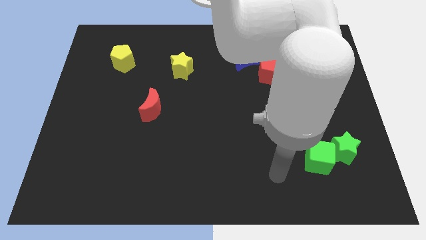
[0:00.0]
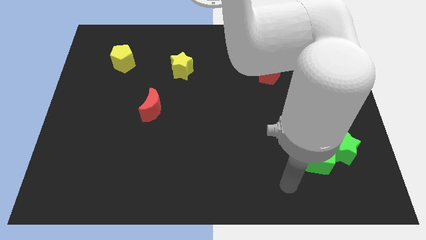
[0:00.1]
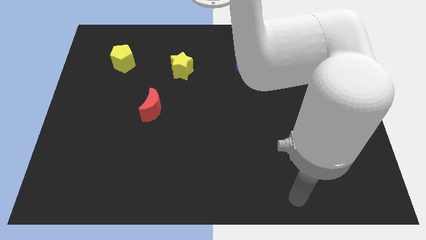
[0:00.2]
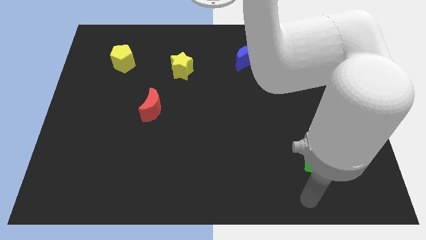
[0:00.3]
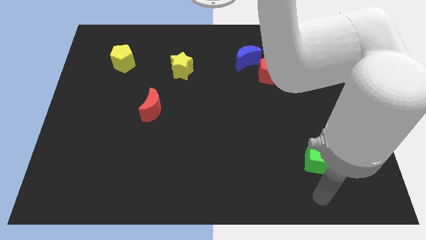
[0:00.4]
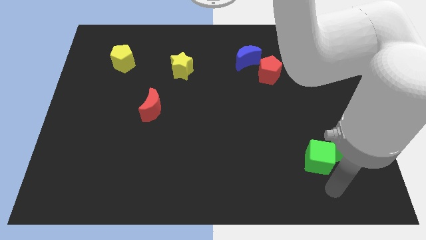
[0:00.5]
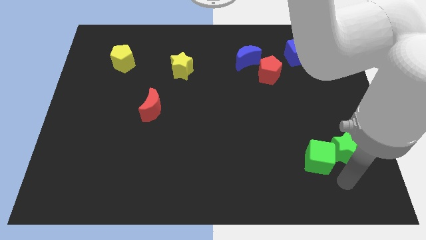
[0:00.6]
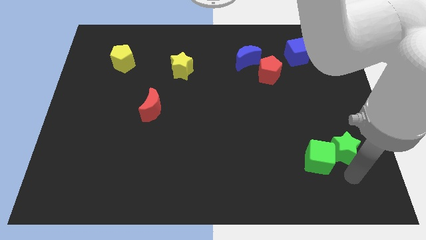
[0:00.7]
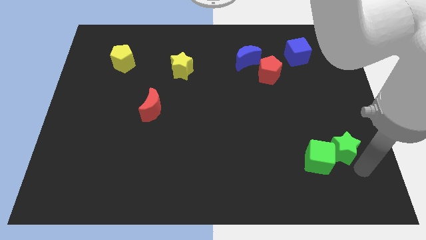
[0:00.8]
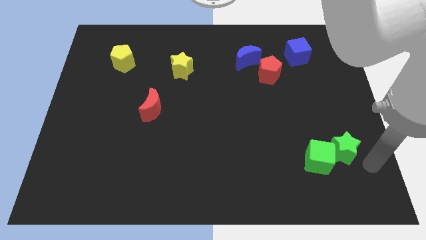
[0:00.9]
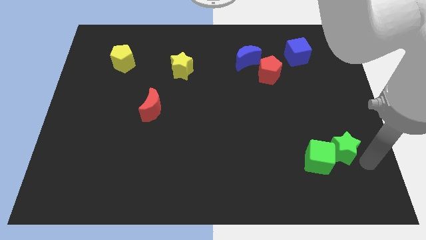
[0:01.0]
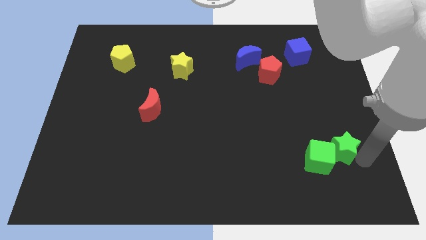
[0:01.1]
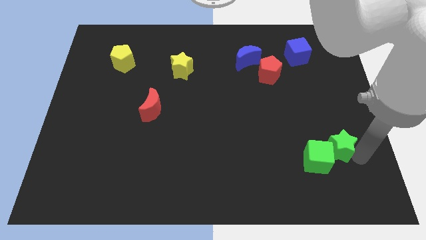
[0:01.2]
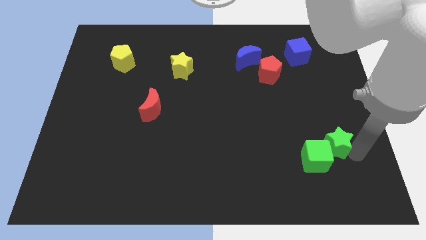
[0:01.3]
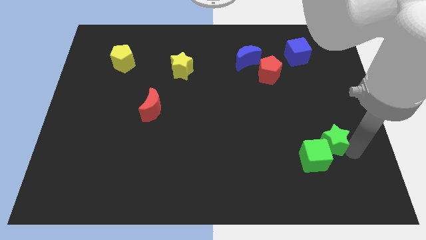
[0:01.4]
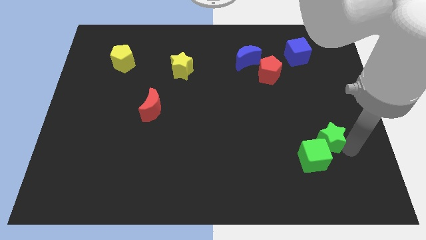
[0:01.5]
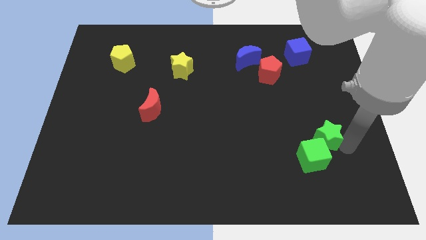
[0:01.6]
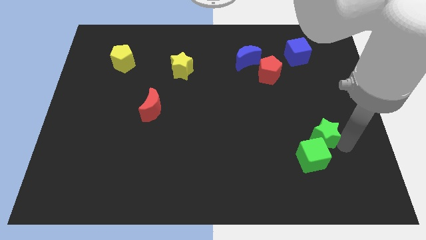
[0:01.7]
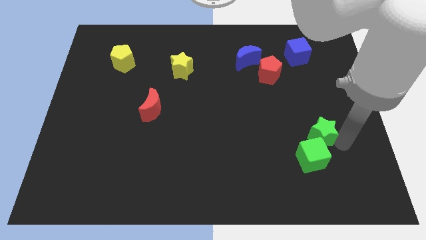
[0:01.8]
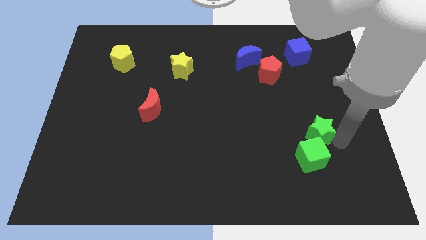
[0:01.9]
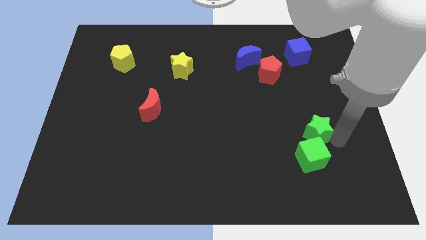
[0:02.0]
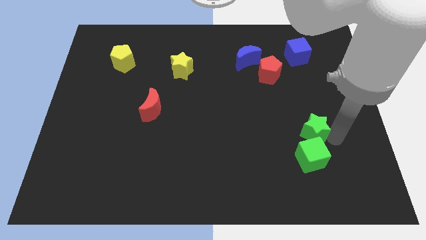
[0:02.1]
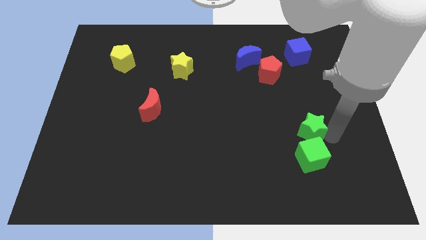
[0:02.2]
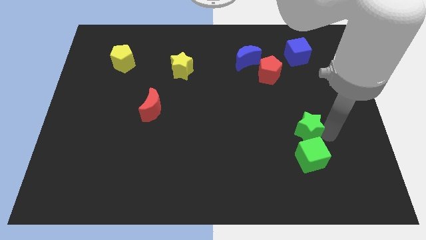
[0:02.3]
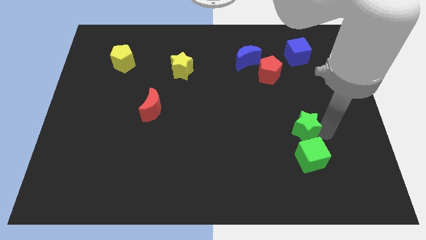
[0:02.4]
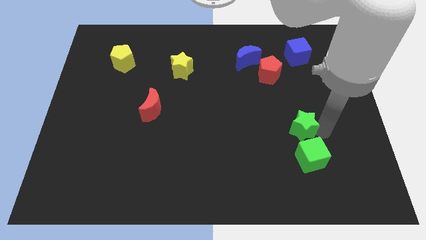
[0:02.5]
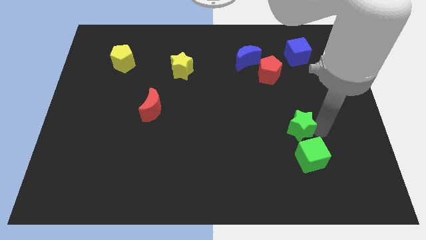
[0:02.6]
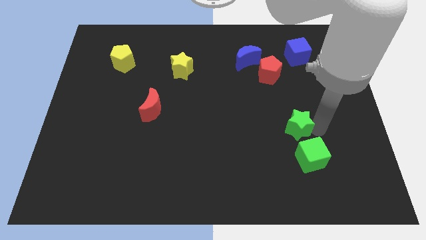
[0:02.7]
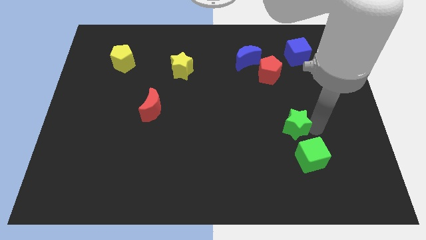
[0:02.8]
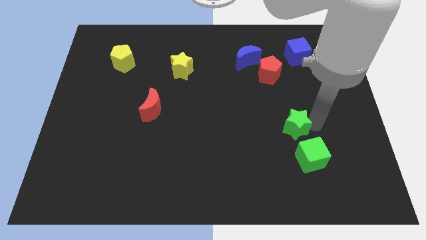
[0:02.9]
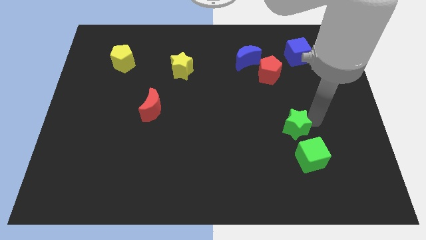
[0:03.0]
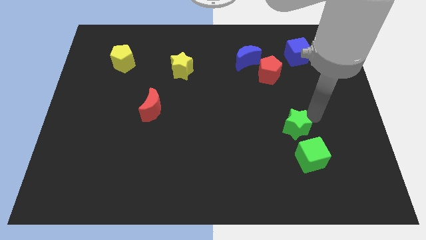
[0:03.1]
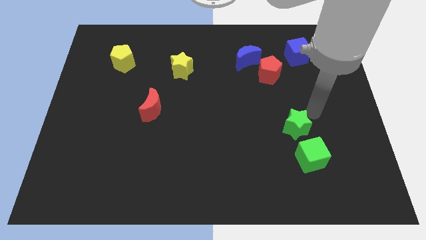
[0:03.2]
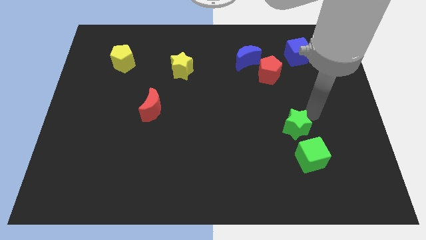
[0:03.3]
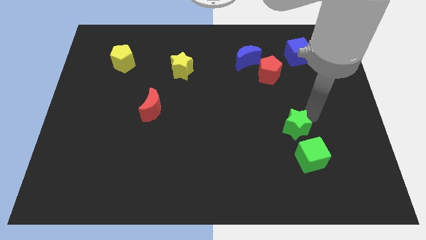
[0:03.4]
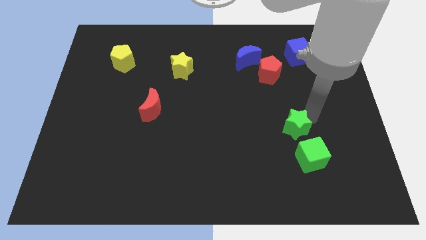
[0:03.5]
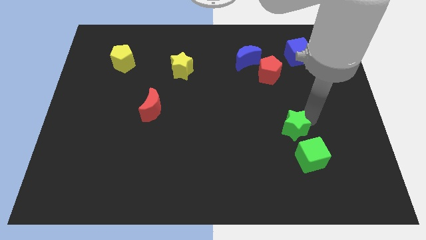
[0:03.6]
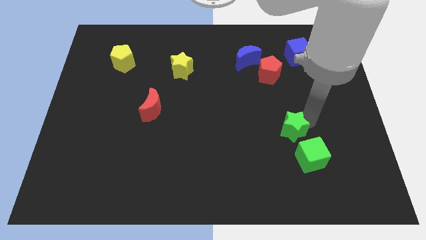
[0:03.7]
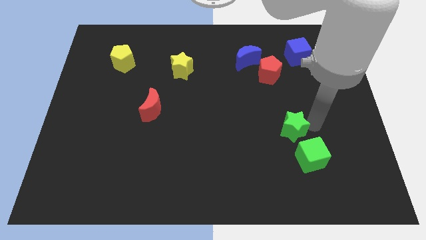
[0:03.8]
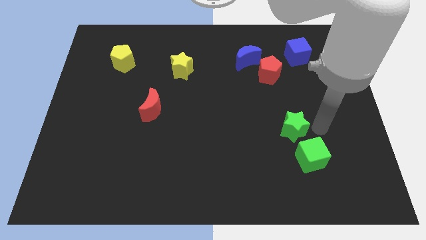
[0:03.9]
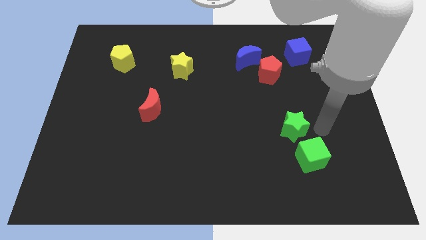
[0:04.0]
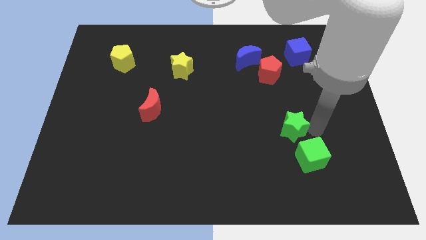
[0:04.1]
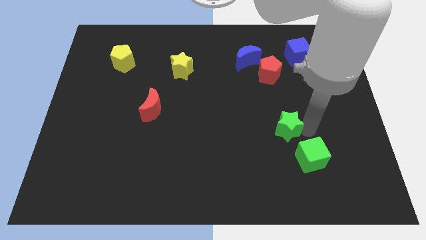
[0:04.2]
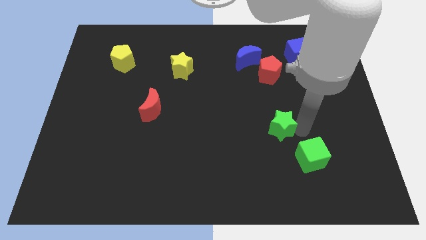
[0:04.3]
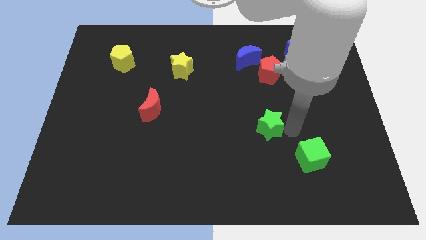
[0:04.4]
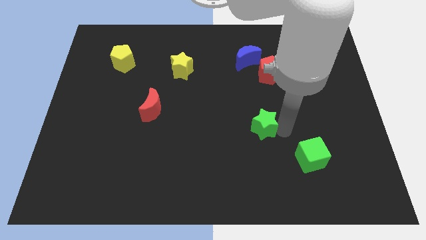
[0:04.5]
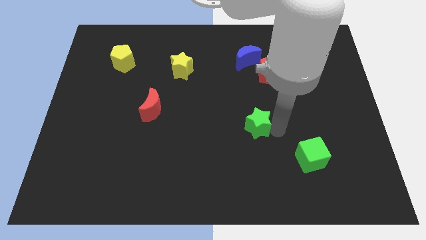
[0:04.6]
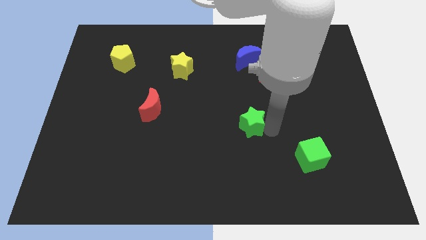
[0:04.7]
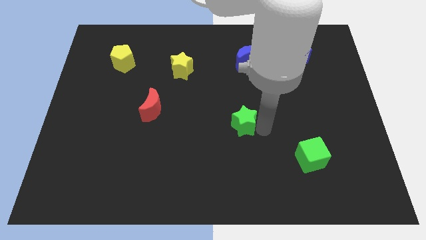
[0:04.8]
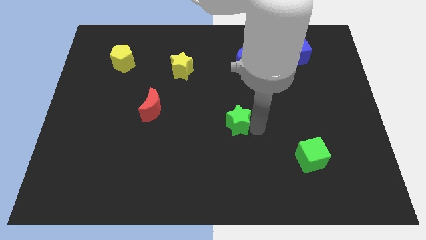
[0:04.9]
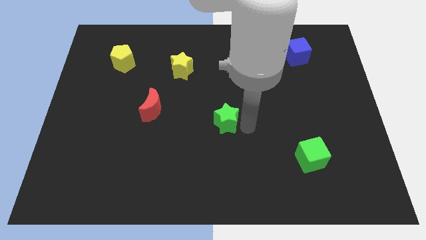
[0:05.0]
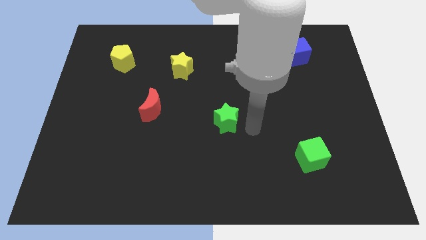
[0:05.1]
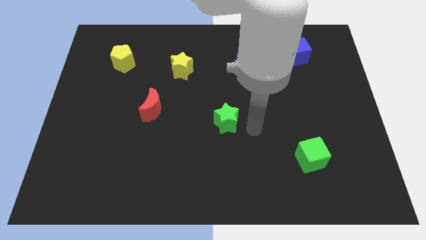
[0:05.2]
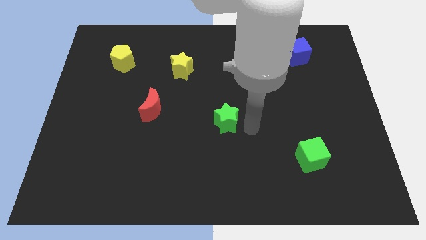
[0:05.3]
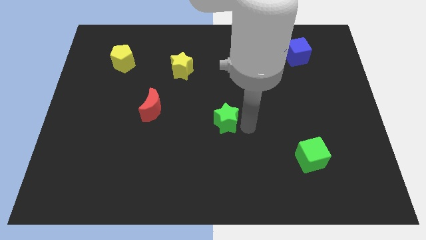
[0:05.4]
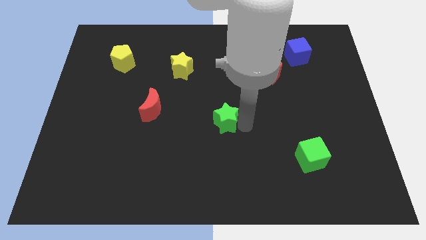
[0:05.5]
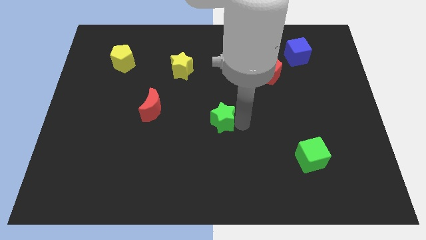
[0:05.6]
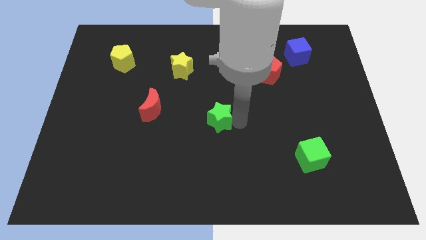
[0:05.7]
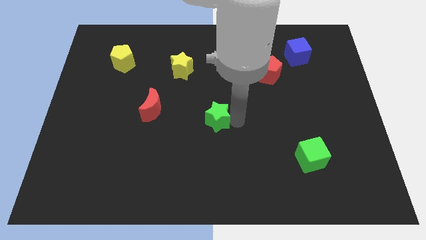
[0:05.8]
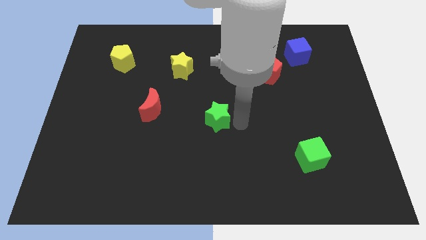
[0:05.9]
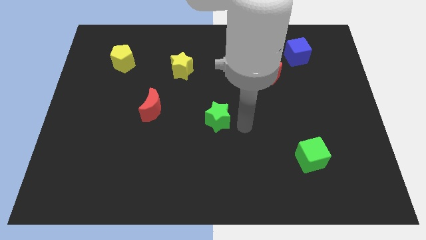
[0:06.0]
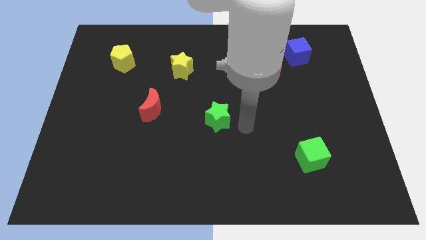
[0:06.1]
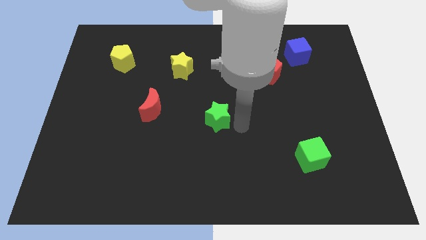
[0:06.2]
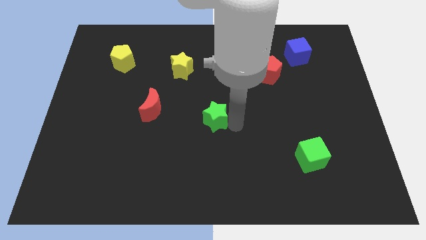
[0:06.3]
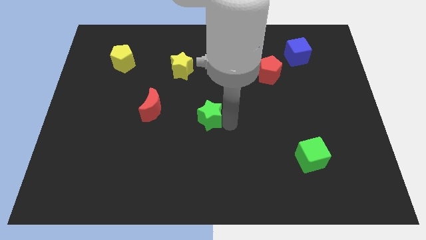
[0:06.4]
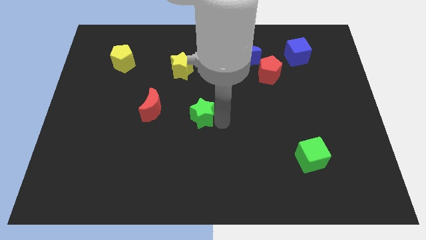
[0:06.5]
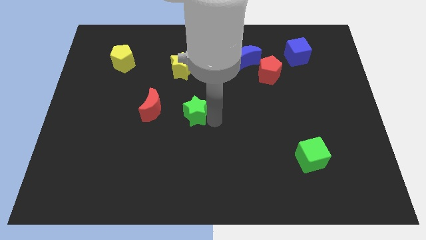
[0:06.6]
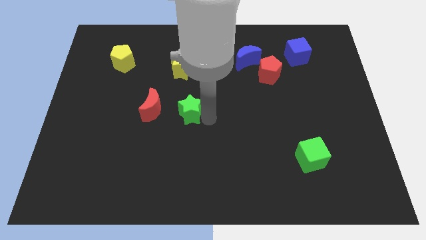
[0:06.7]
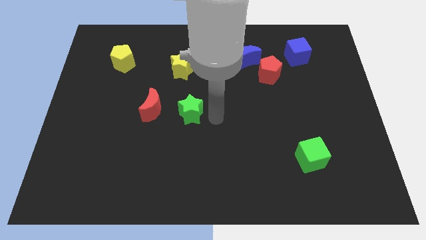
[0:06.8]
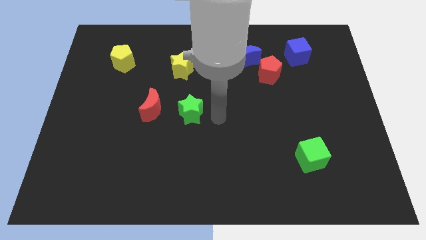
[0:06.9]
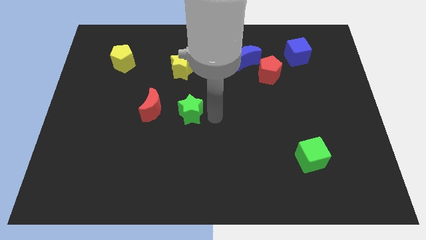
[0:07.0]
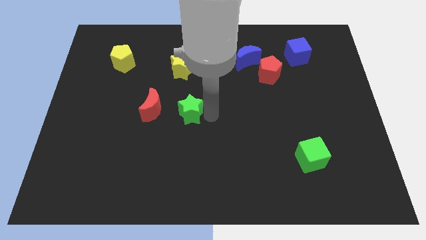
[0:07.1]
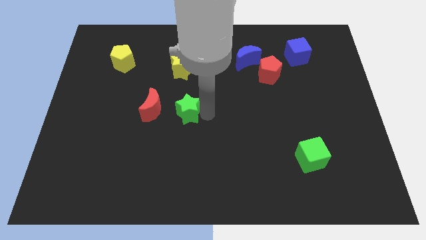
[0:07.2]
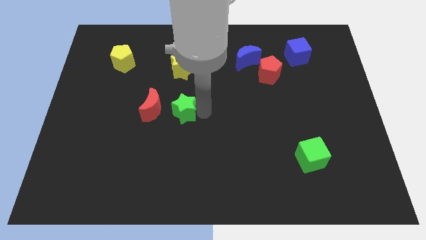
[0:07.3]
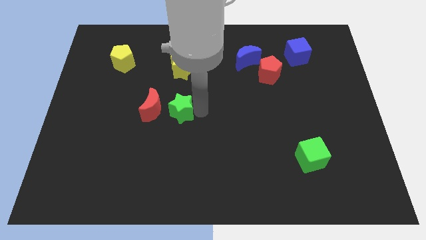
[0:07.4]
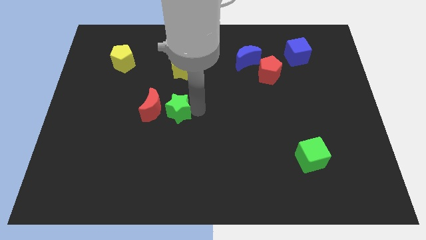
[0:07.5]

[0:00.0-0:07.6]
push the green star towards the red moon
